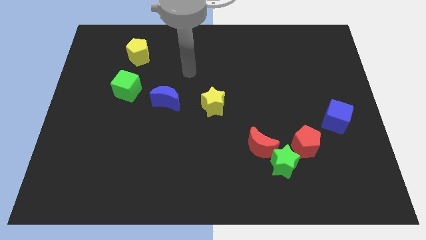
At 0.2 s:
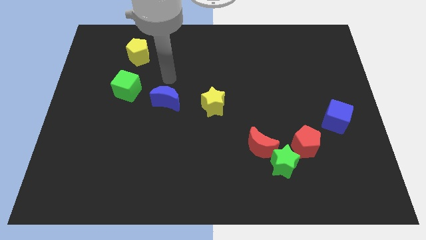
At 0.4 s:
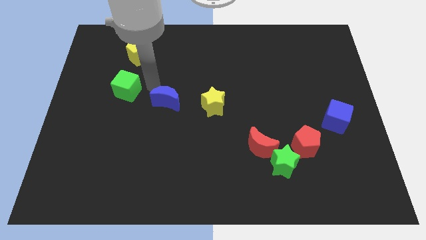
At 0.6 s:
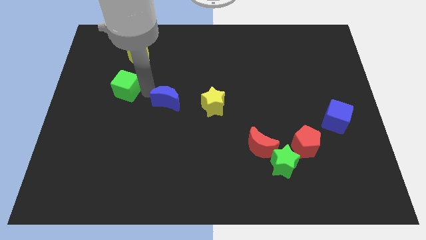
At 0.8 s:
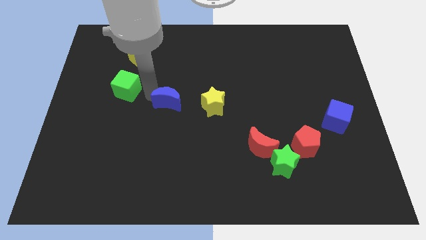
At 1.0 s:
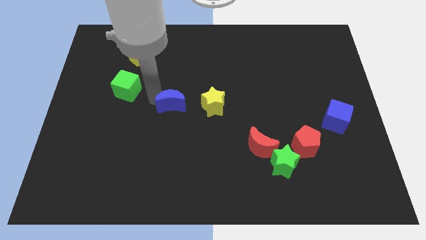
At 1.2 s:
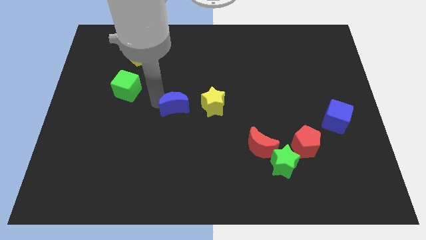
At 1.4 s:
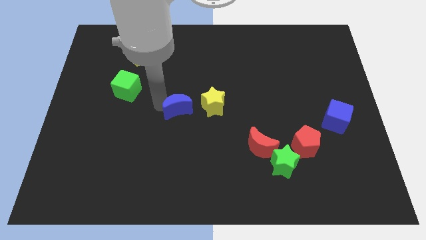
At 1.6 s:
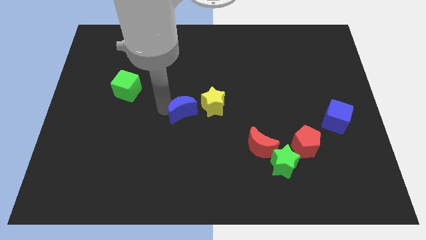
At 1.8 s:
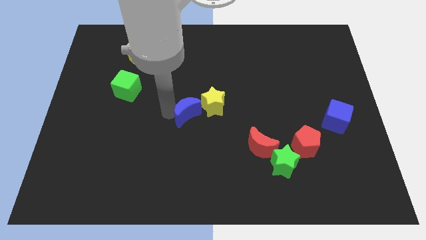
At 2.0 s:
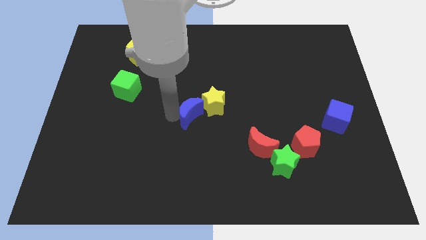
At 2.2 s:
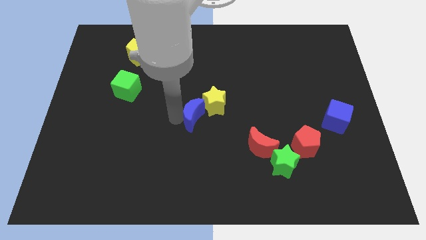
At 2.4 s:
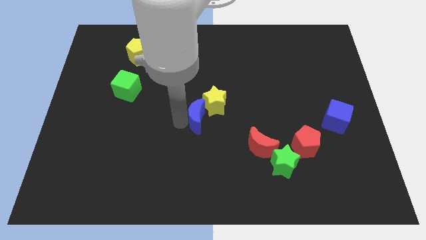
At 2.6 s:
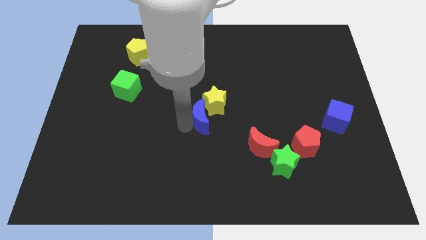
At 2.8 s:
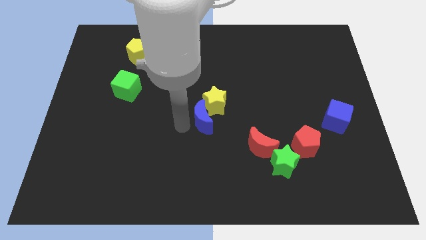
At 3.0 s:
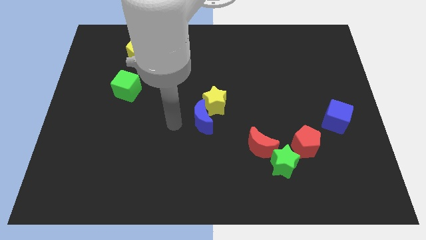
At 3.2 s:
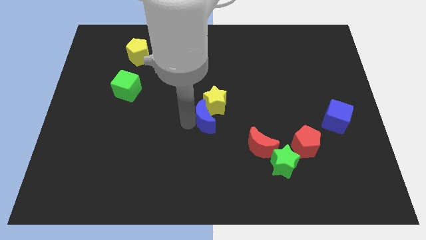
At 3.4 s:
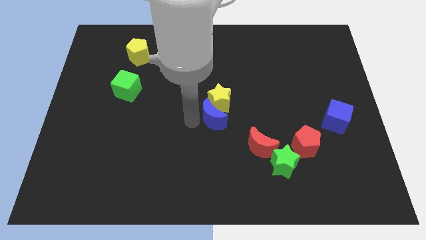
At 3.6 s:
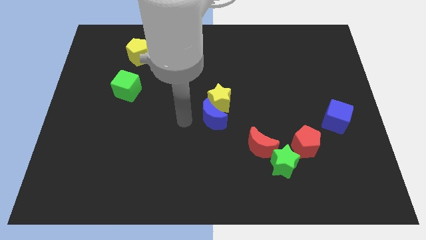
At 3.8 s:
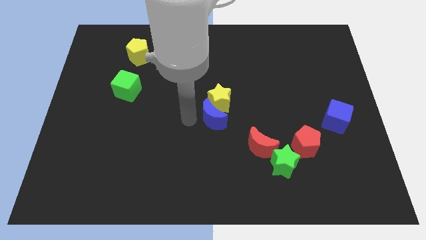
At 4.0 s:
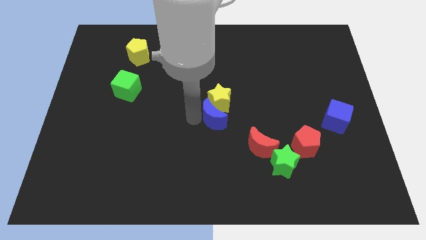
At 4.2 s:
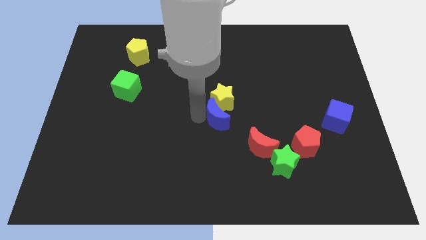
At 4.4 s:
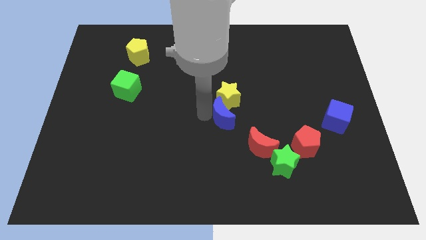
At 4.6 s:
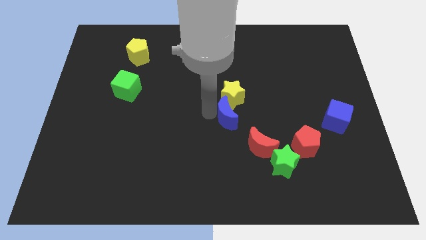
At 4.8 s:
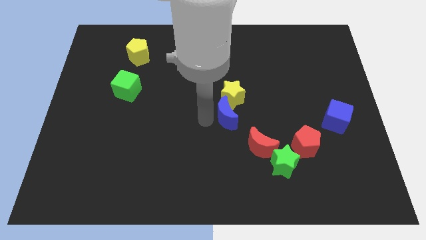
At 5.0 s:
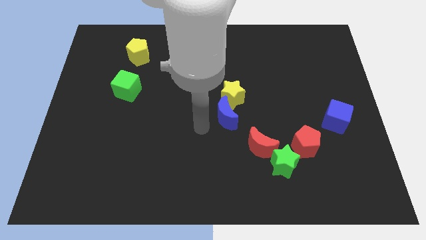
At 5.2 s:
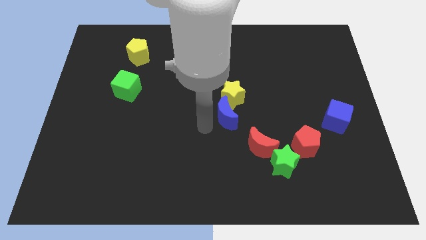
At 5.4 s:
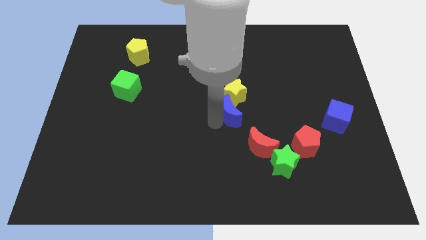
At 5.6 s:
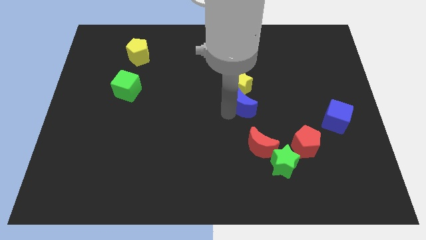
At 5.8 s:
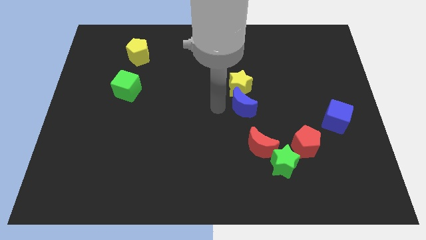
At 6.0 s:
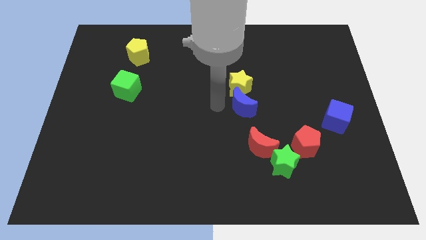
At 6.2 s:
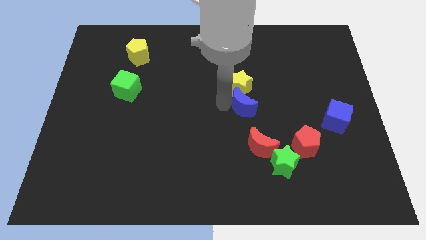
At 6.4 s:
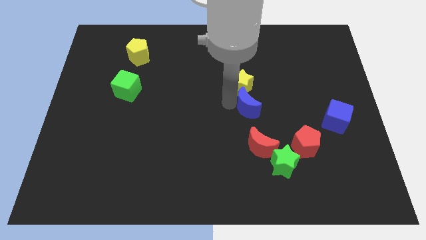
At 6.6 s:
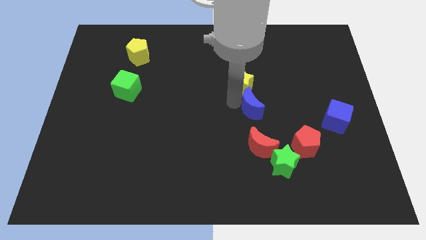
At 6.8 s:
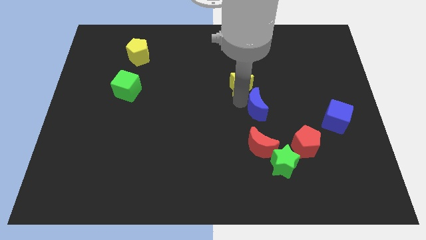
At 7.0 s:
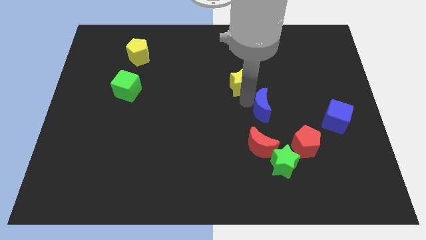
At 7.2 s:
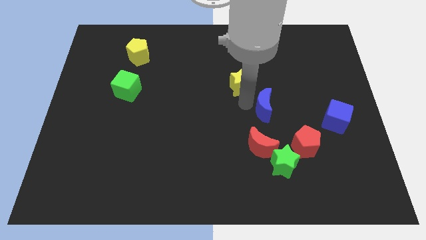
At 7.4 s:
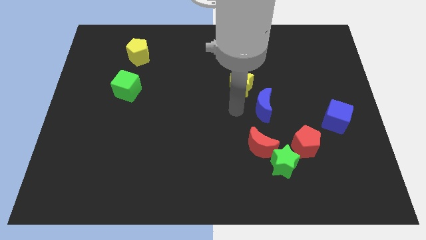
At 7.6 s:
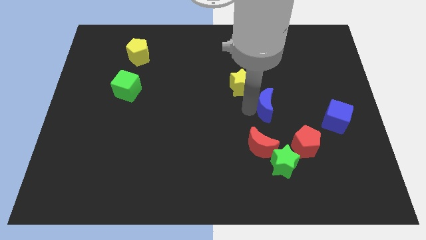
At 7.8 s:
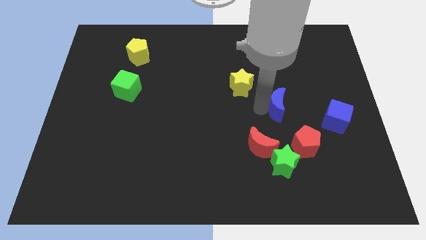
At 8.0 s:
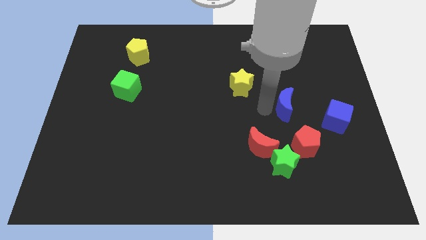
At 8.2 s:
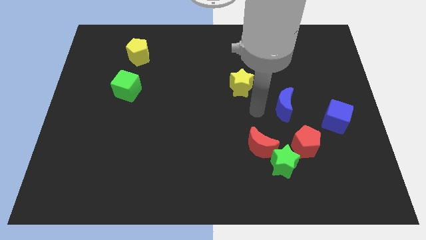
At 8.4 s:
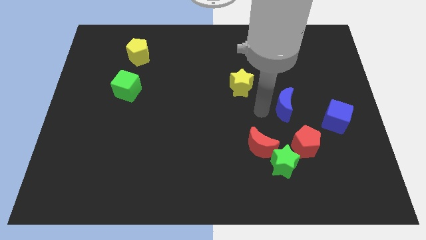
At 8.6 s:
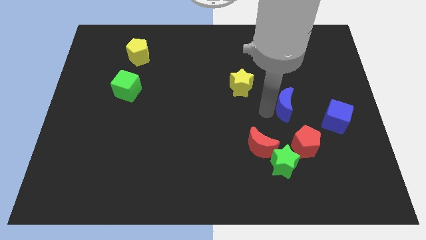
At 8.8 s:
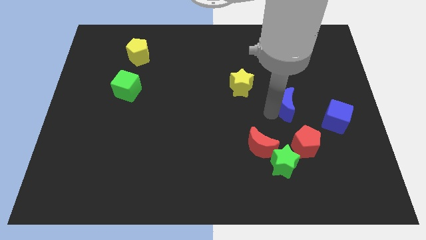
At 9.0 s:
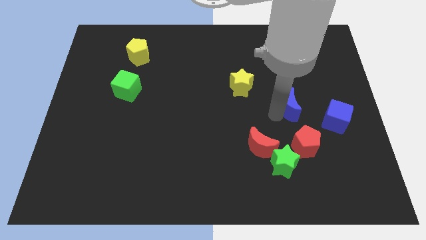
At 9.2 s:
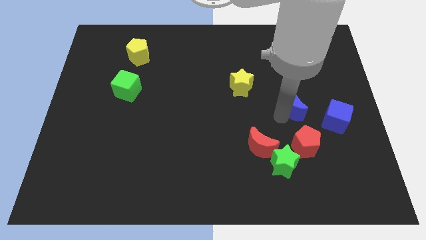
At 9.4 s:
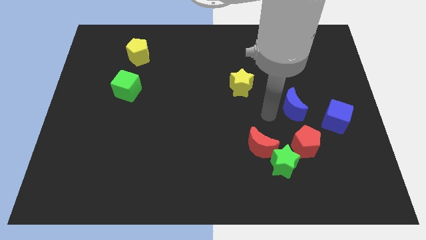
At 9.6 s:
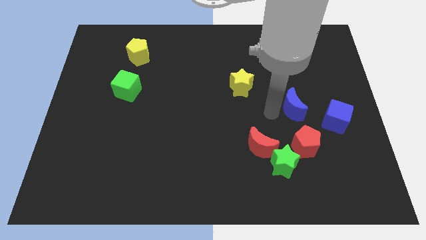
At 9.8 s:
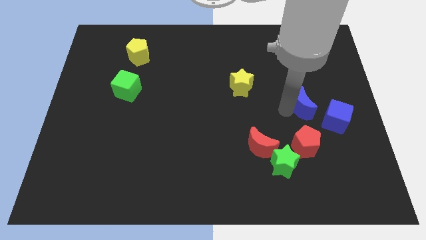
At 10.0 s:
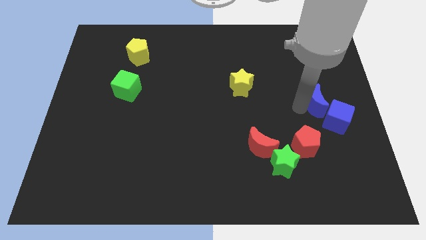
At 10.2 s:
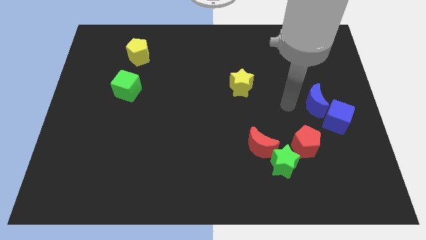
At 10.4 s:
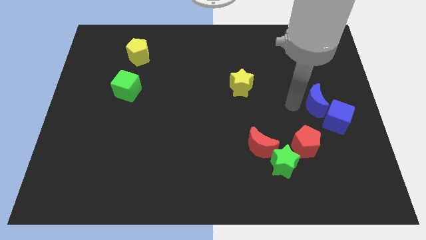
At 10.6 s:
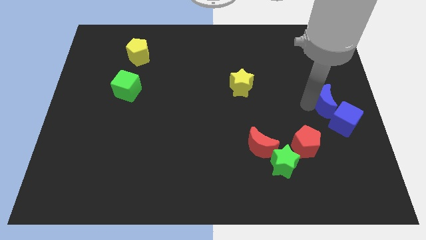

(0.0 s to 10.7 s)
move the blue moon to the right side
